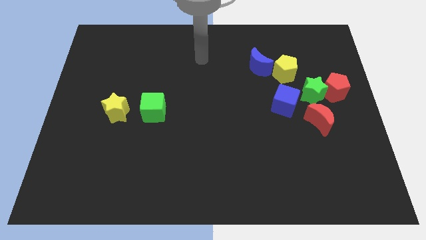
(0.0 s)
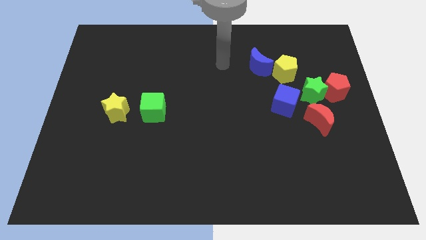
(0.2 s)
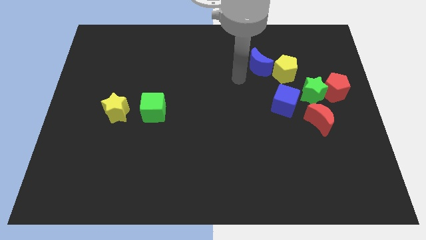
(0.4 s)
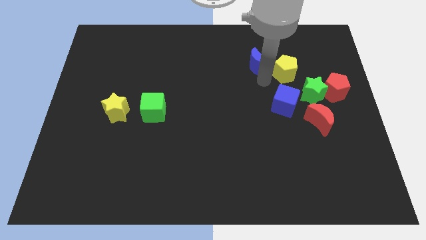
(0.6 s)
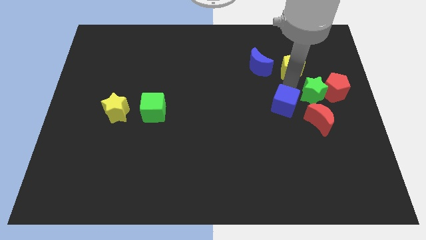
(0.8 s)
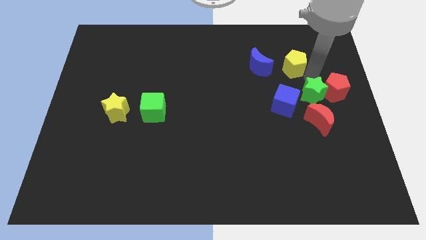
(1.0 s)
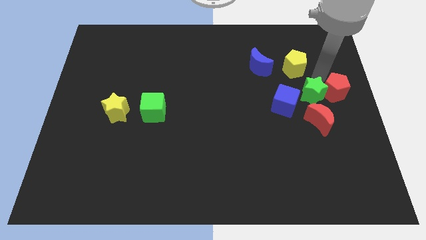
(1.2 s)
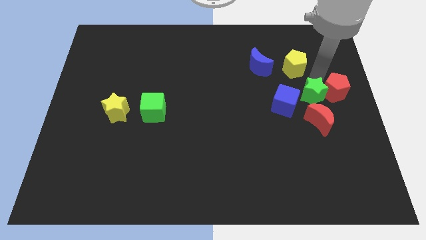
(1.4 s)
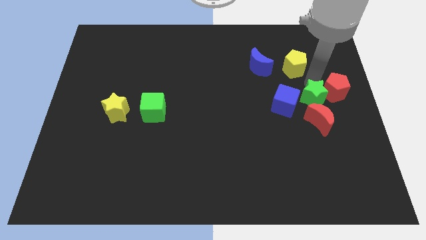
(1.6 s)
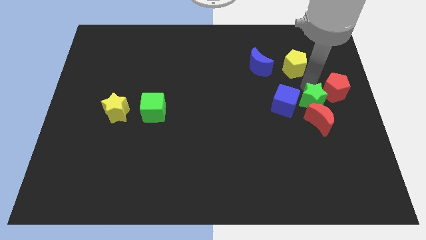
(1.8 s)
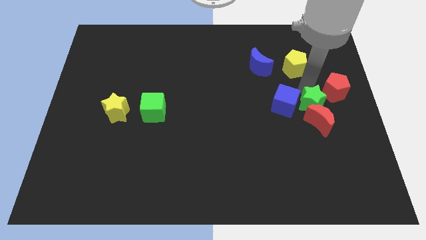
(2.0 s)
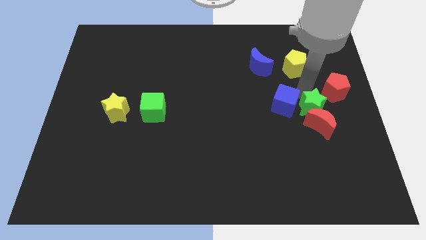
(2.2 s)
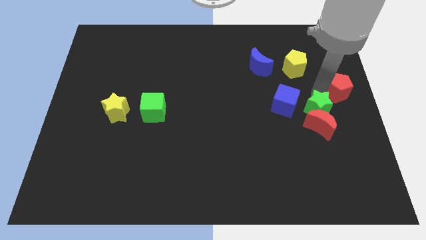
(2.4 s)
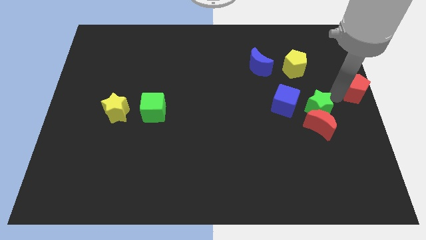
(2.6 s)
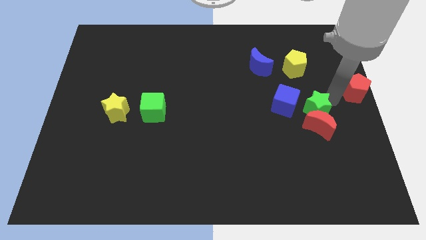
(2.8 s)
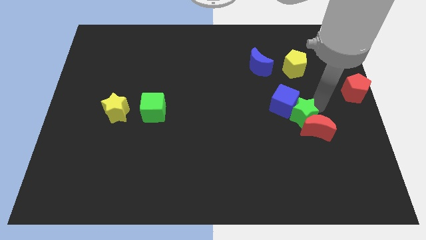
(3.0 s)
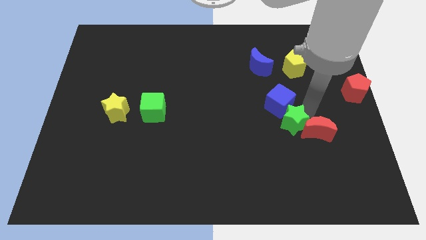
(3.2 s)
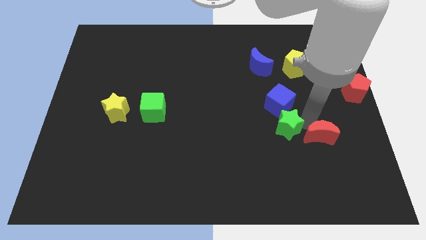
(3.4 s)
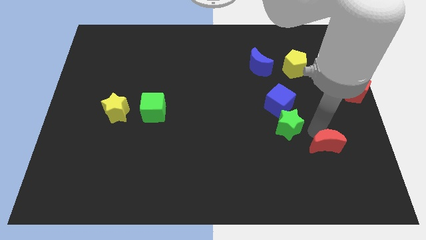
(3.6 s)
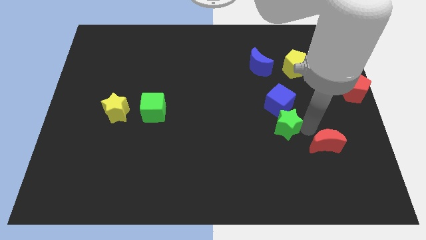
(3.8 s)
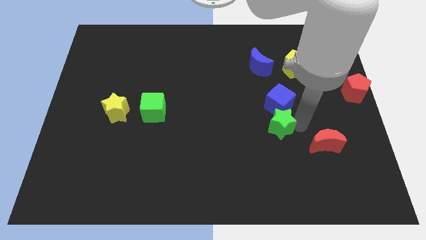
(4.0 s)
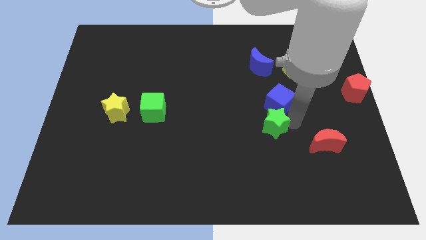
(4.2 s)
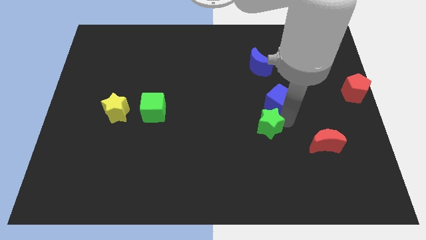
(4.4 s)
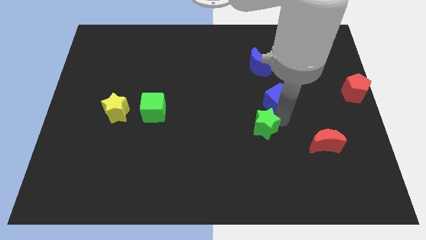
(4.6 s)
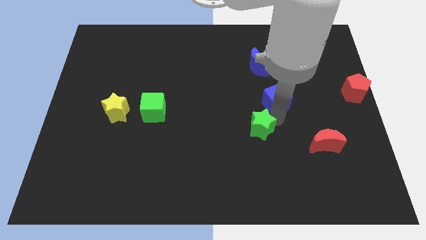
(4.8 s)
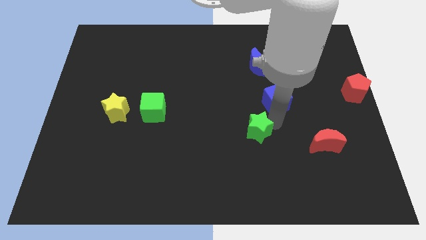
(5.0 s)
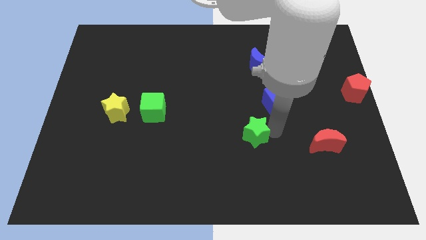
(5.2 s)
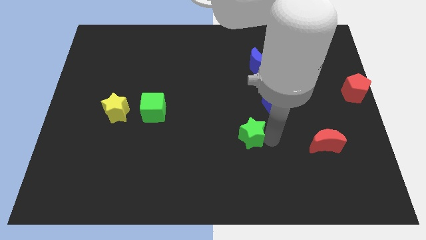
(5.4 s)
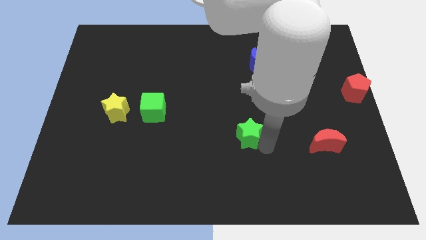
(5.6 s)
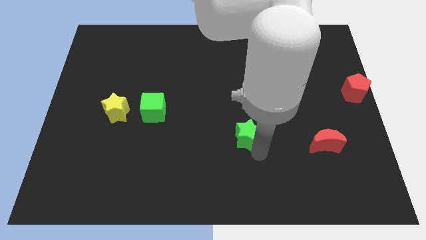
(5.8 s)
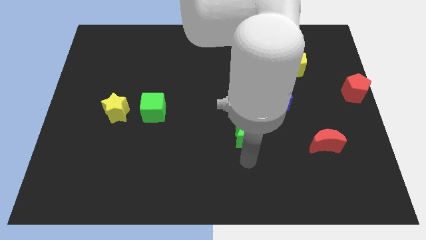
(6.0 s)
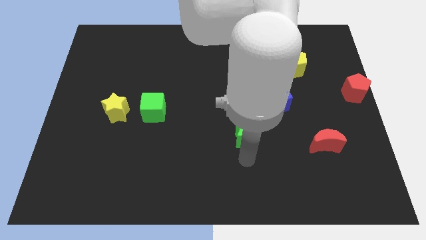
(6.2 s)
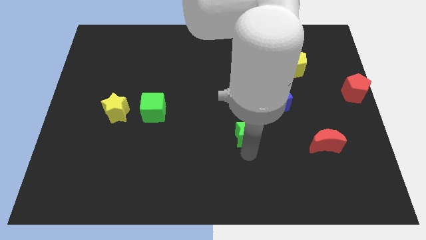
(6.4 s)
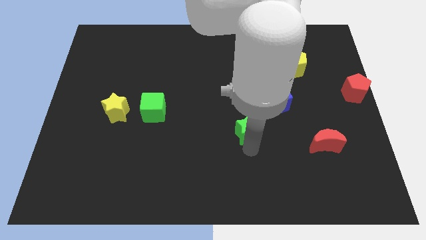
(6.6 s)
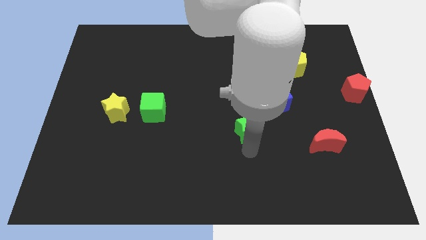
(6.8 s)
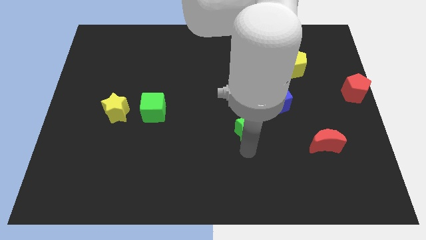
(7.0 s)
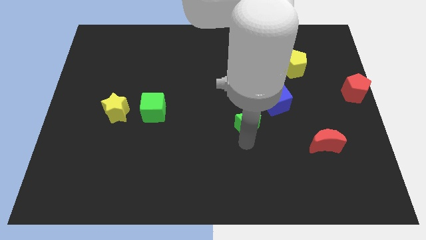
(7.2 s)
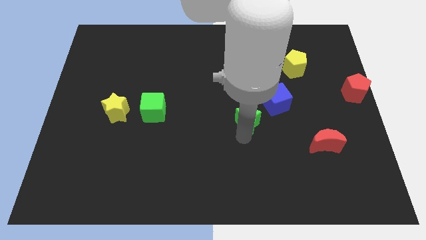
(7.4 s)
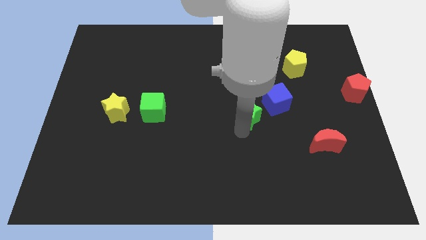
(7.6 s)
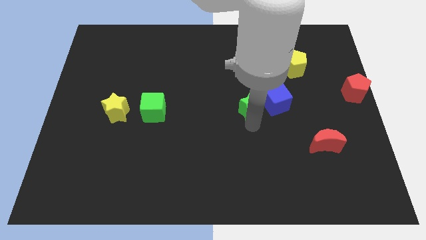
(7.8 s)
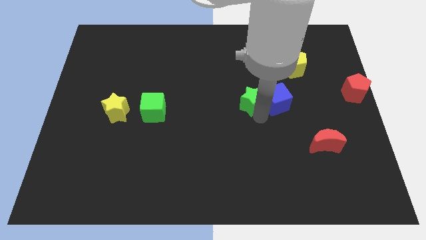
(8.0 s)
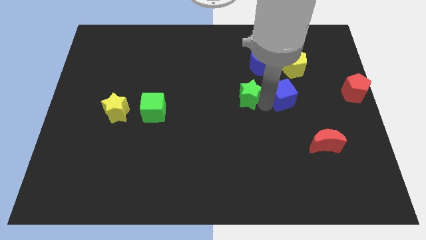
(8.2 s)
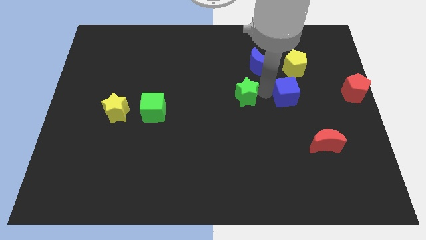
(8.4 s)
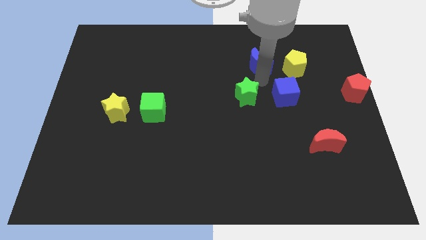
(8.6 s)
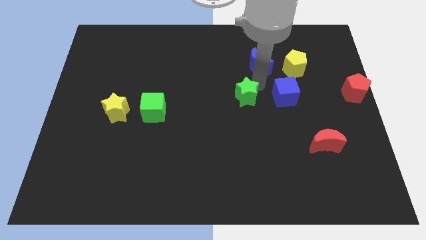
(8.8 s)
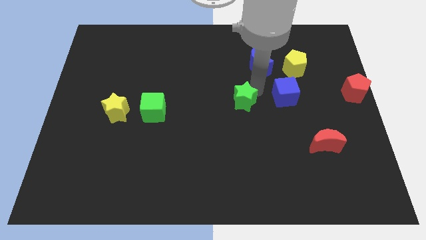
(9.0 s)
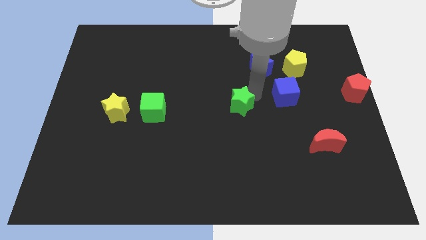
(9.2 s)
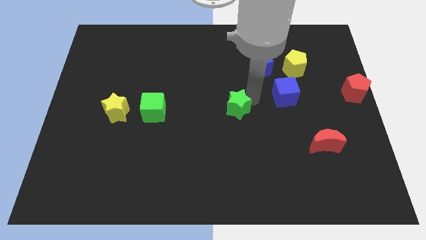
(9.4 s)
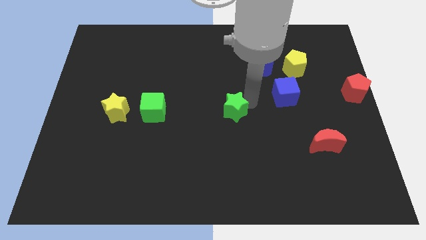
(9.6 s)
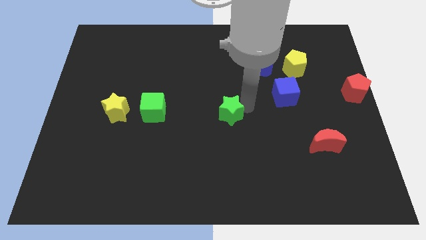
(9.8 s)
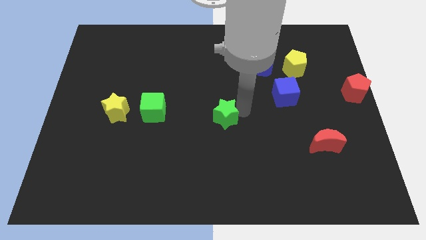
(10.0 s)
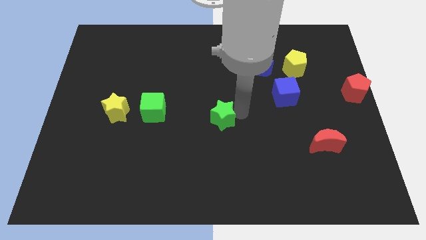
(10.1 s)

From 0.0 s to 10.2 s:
move the green star to the right side of the green cube

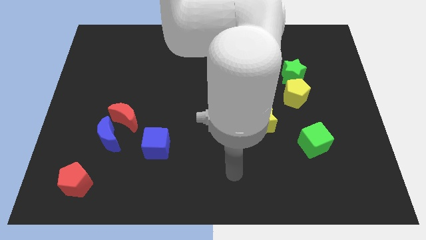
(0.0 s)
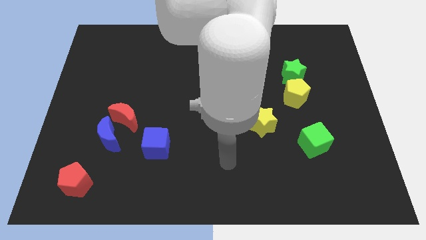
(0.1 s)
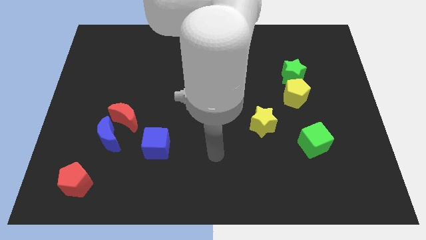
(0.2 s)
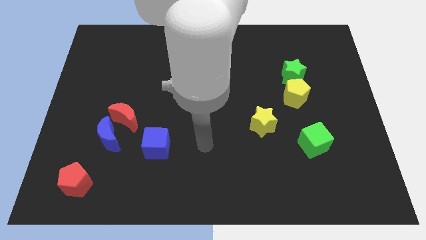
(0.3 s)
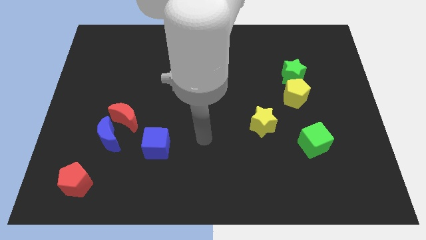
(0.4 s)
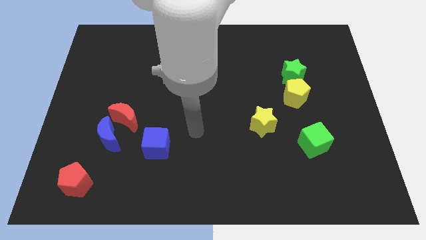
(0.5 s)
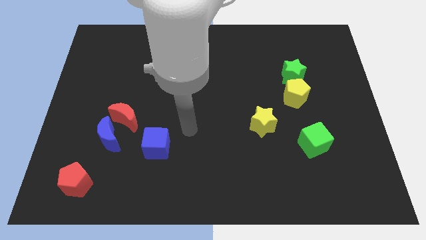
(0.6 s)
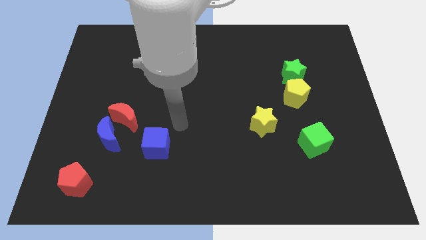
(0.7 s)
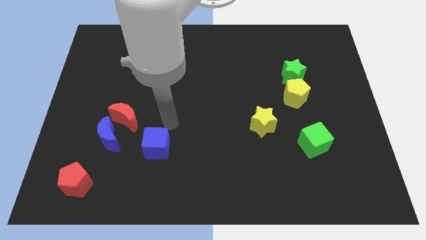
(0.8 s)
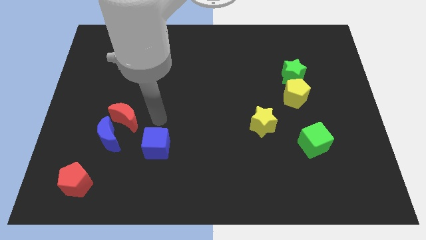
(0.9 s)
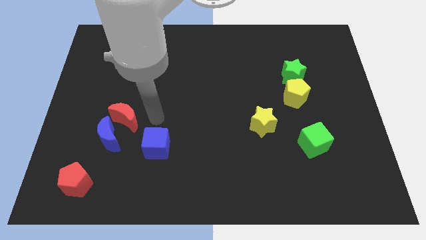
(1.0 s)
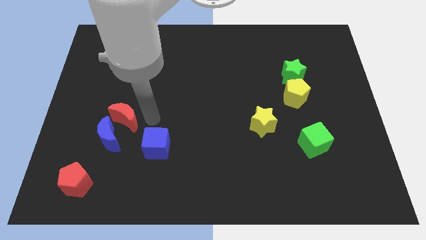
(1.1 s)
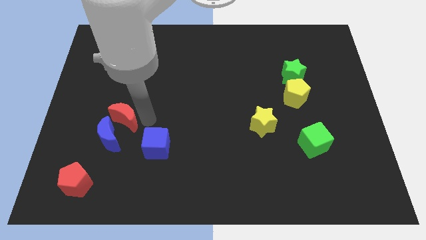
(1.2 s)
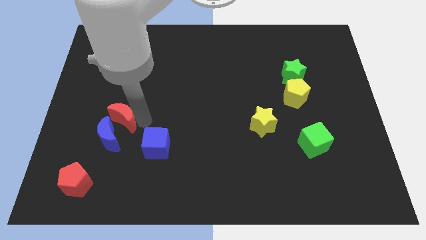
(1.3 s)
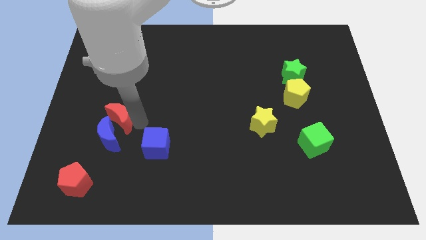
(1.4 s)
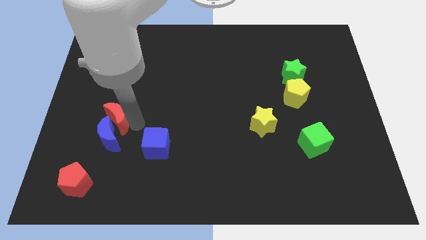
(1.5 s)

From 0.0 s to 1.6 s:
put the red moon diagonally up and to the left of the blue moon
